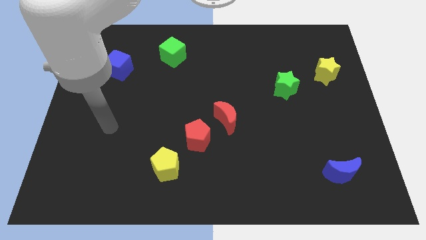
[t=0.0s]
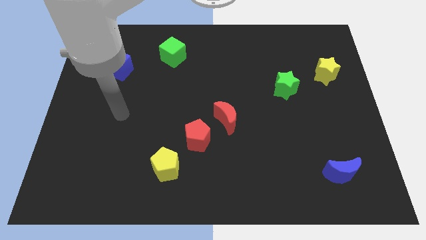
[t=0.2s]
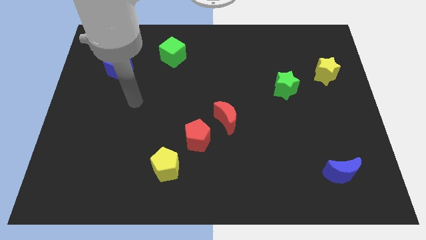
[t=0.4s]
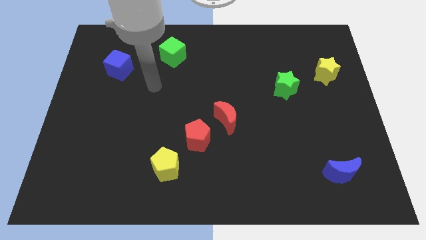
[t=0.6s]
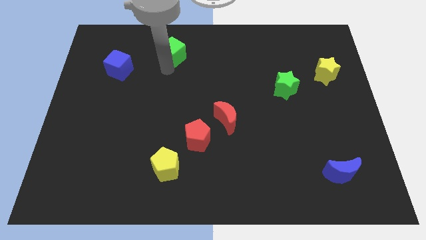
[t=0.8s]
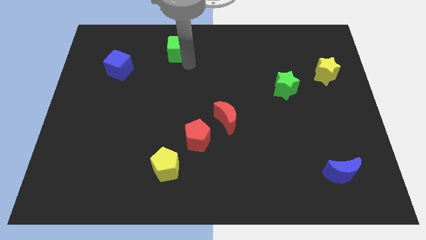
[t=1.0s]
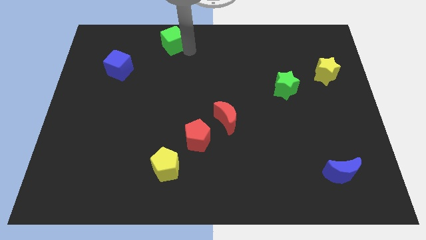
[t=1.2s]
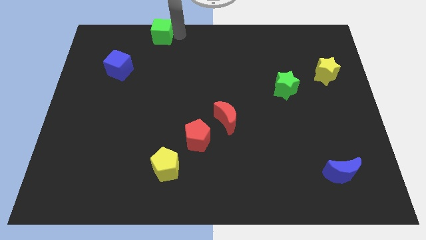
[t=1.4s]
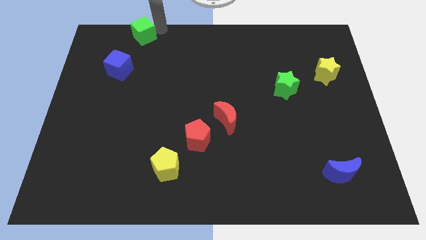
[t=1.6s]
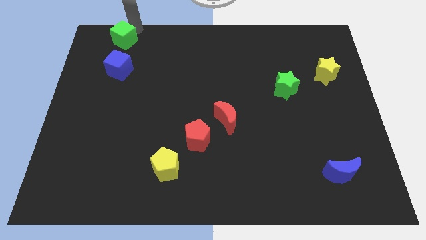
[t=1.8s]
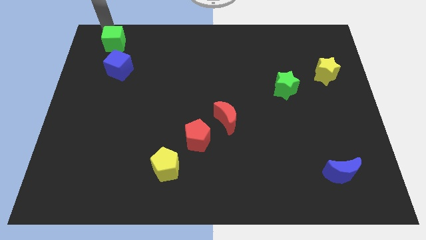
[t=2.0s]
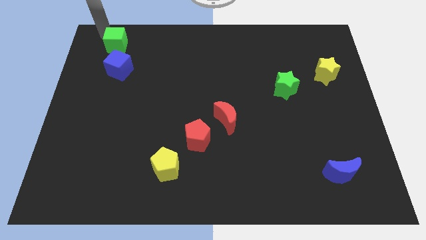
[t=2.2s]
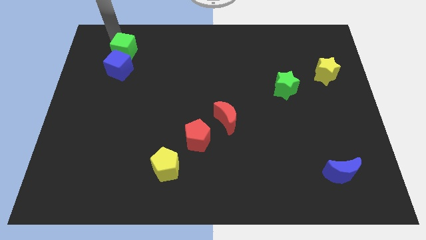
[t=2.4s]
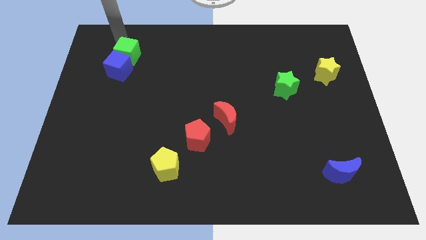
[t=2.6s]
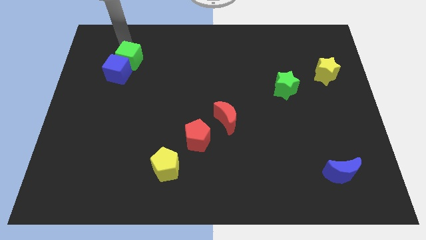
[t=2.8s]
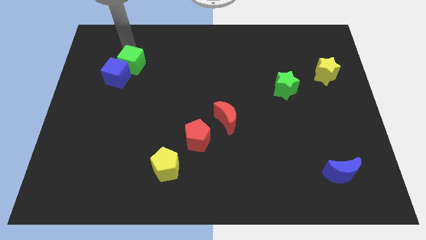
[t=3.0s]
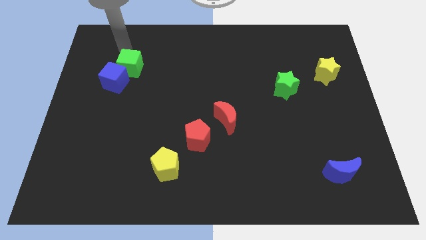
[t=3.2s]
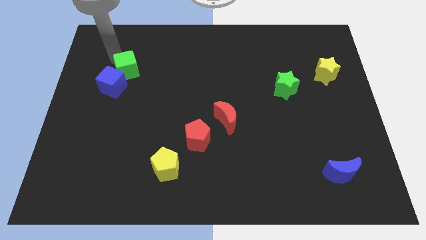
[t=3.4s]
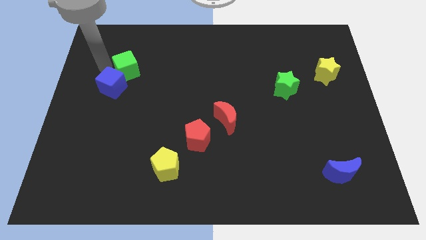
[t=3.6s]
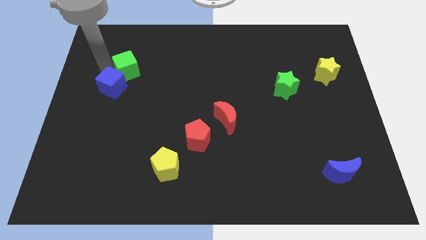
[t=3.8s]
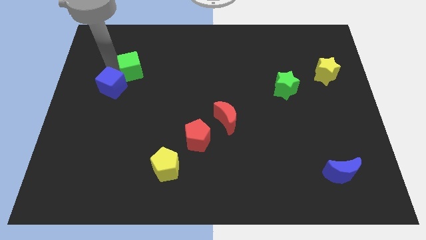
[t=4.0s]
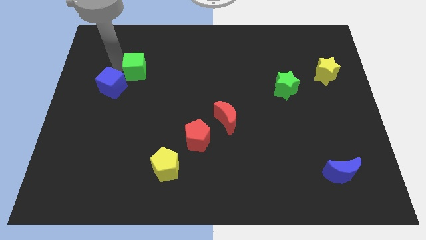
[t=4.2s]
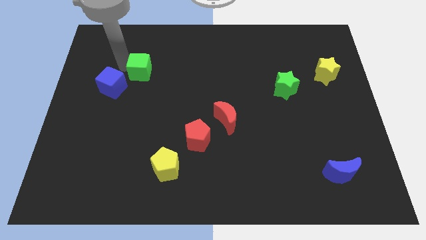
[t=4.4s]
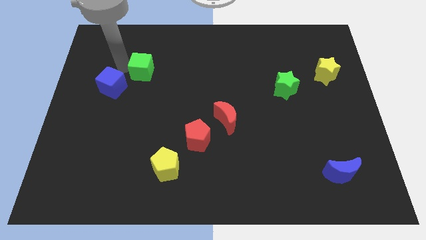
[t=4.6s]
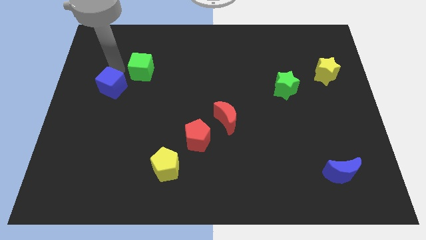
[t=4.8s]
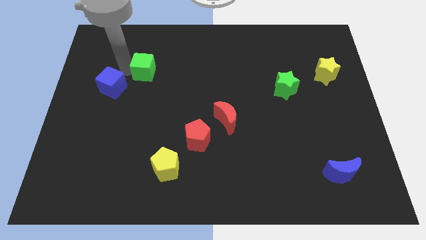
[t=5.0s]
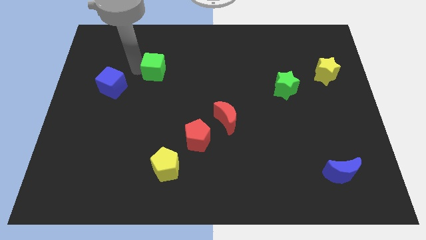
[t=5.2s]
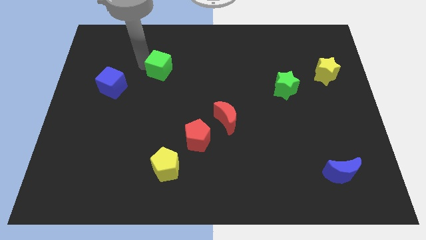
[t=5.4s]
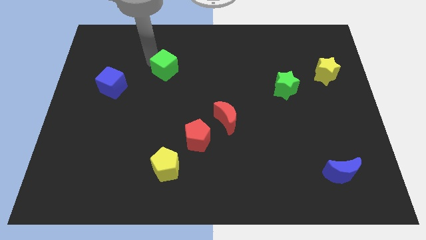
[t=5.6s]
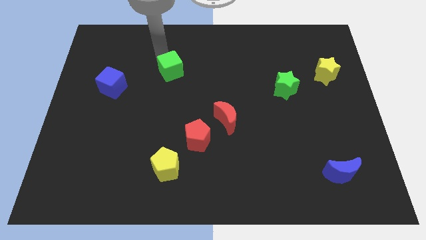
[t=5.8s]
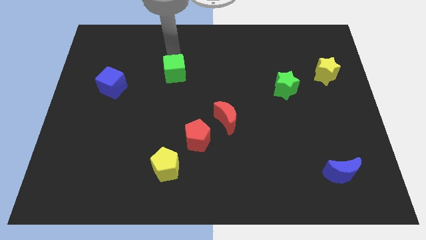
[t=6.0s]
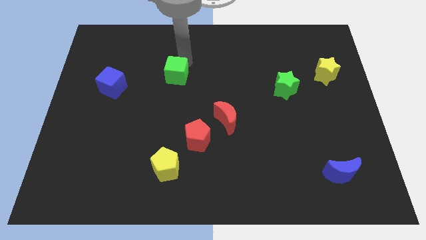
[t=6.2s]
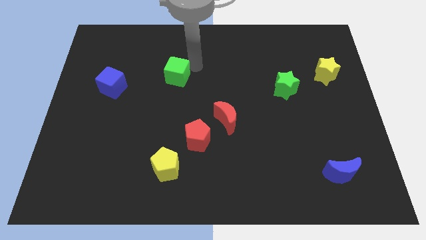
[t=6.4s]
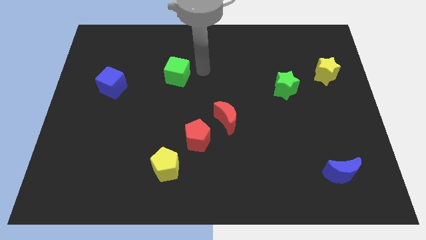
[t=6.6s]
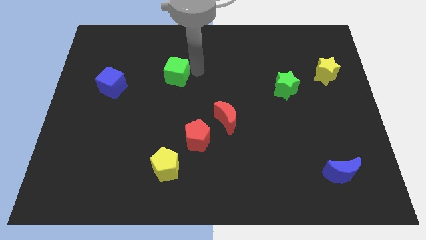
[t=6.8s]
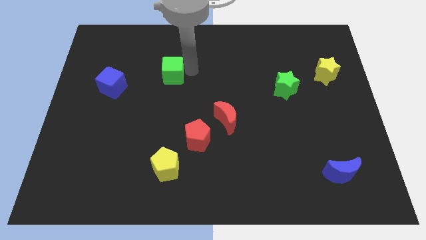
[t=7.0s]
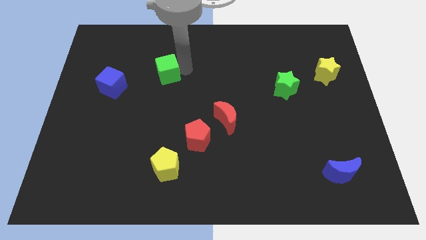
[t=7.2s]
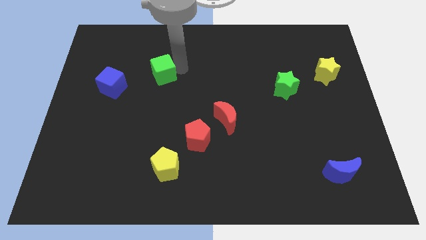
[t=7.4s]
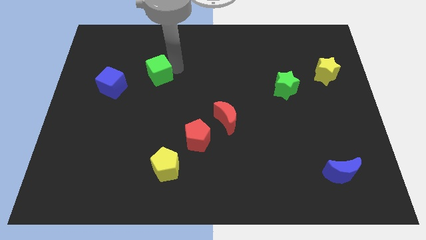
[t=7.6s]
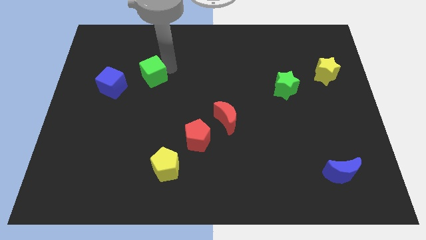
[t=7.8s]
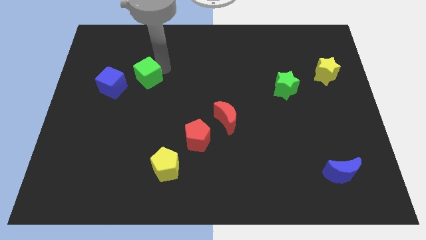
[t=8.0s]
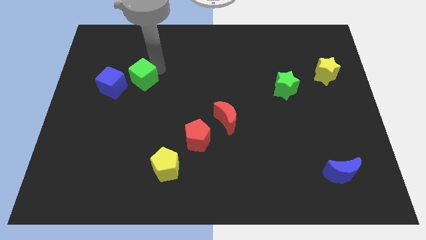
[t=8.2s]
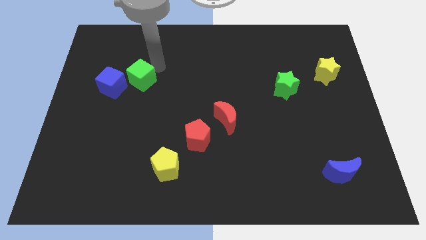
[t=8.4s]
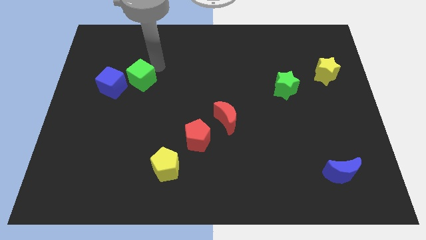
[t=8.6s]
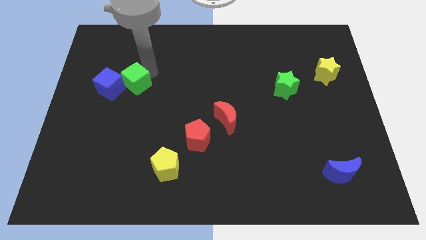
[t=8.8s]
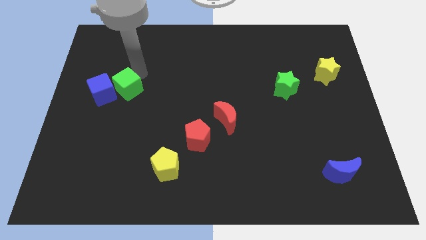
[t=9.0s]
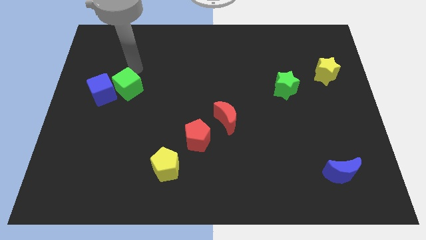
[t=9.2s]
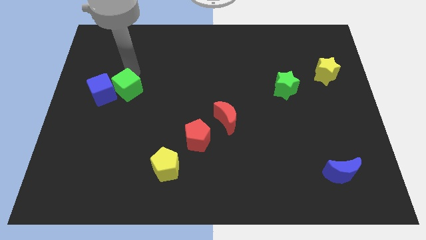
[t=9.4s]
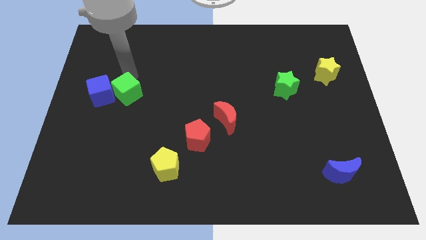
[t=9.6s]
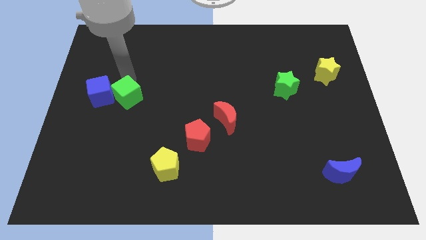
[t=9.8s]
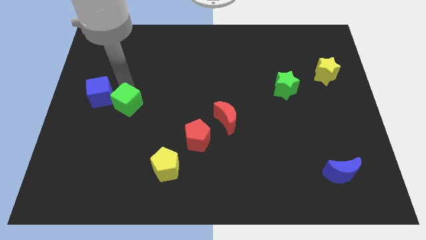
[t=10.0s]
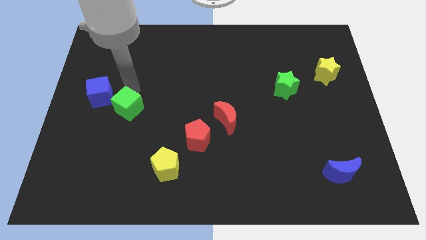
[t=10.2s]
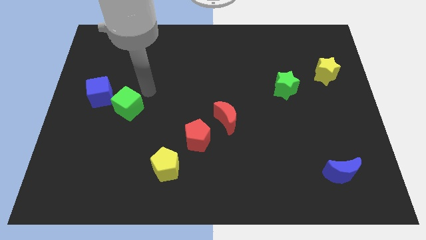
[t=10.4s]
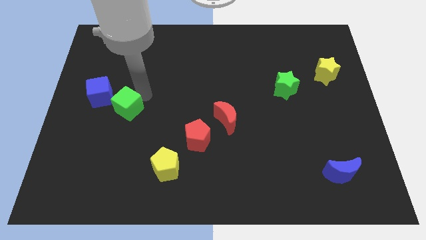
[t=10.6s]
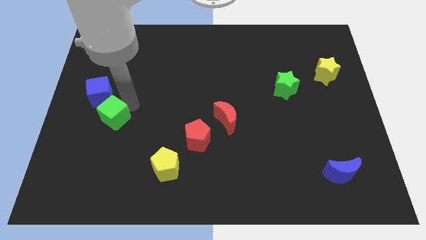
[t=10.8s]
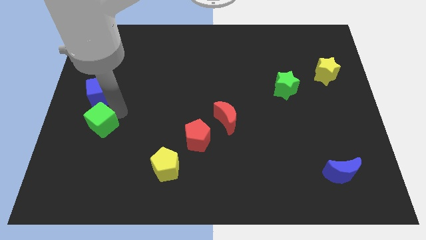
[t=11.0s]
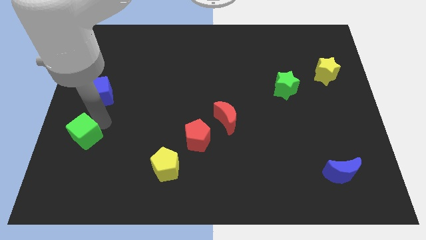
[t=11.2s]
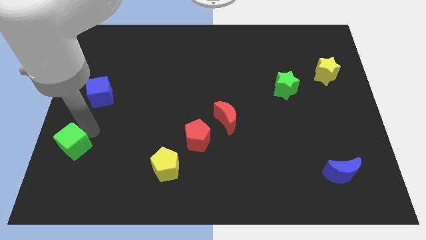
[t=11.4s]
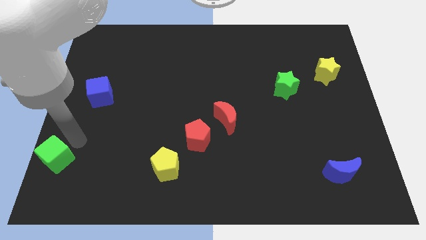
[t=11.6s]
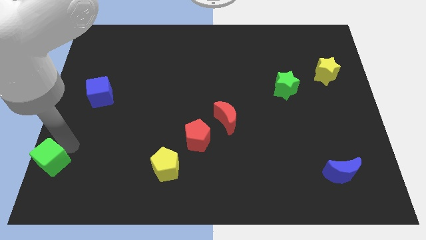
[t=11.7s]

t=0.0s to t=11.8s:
push the green cube to the bottom left of the board

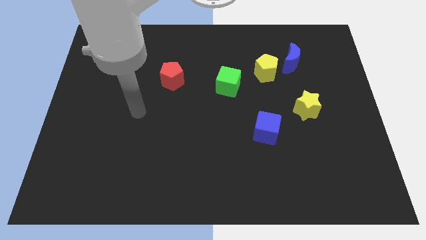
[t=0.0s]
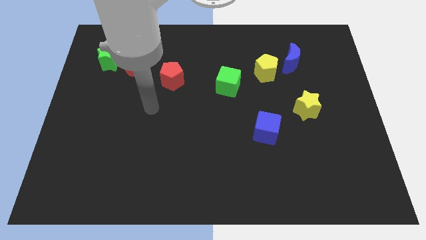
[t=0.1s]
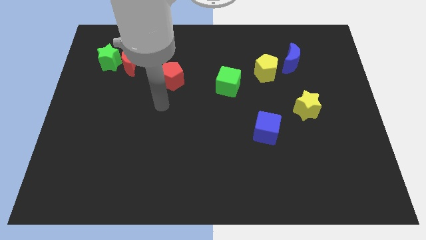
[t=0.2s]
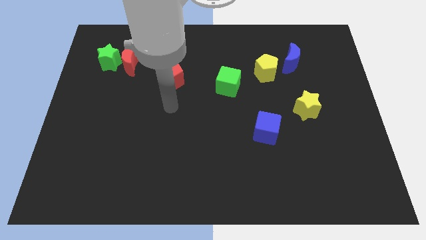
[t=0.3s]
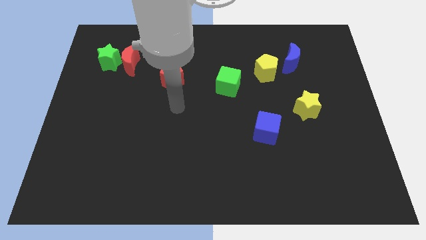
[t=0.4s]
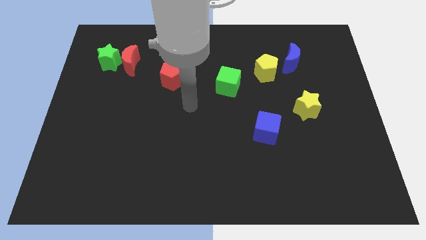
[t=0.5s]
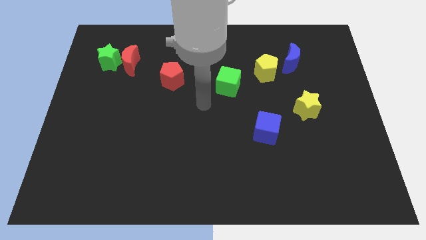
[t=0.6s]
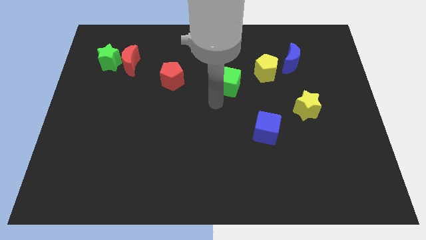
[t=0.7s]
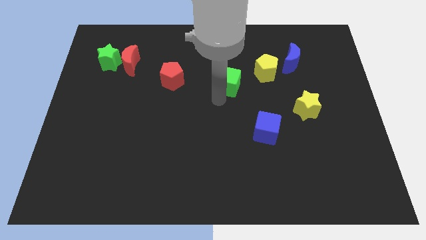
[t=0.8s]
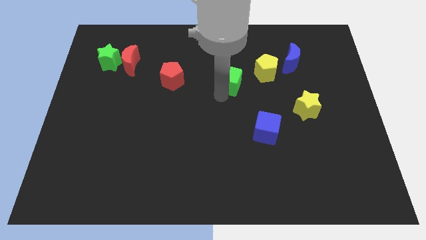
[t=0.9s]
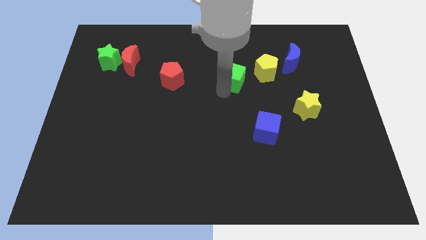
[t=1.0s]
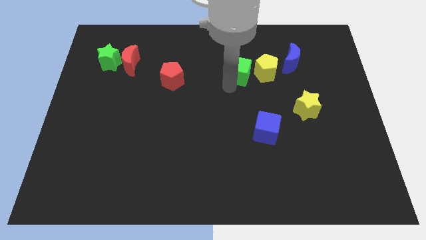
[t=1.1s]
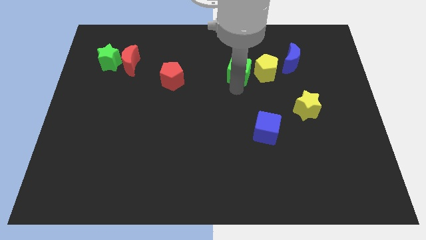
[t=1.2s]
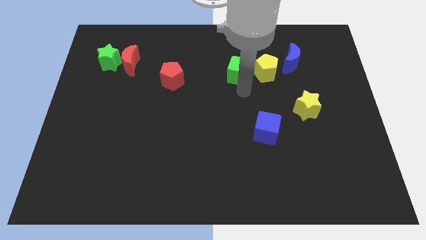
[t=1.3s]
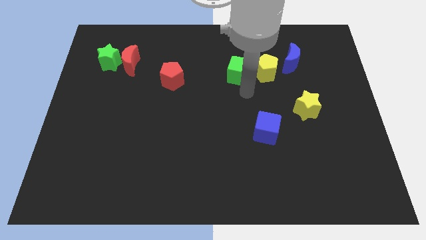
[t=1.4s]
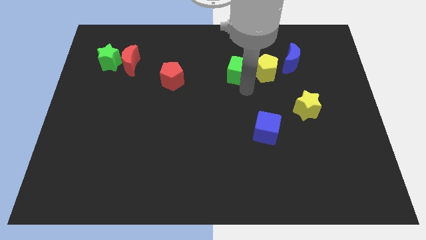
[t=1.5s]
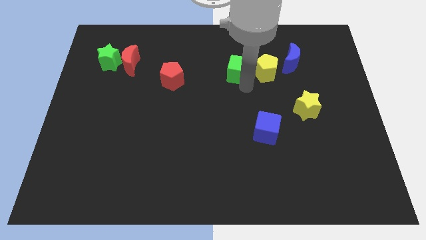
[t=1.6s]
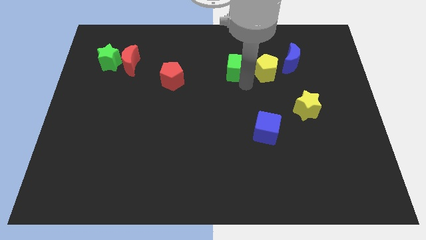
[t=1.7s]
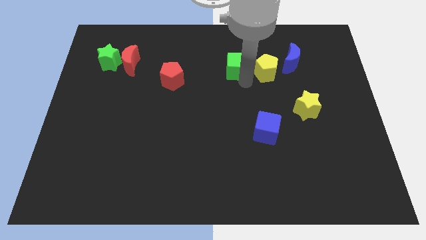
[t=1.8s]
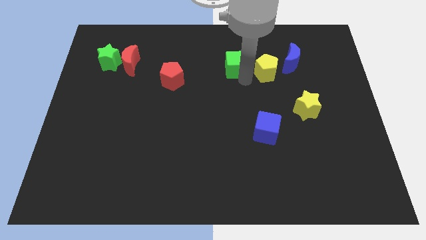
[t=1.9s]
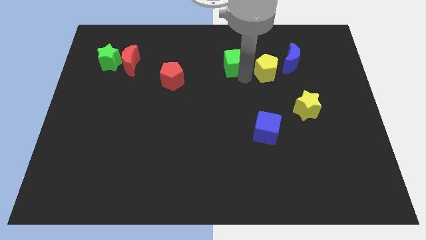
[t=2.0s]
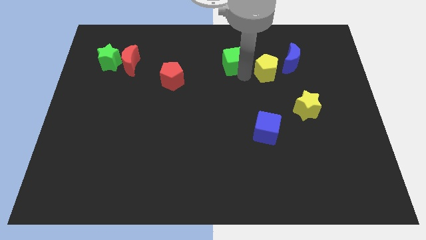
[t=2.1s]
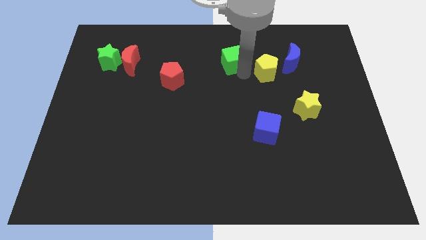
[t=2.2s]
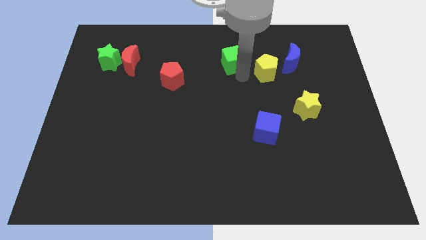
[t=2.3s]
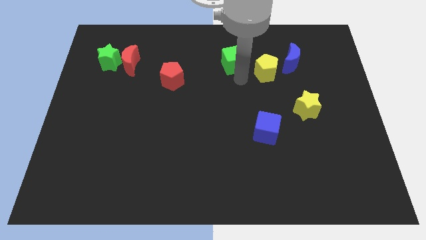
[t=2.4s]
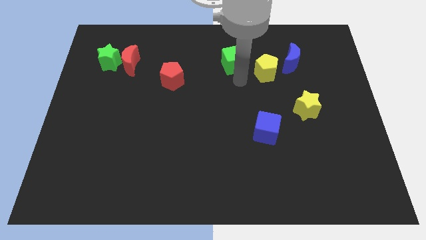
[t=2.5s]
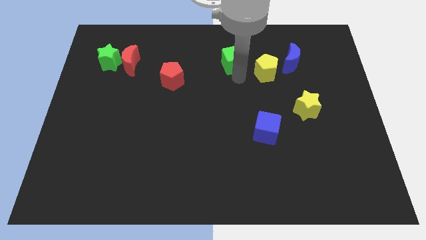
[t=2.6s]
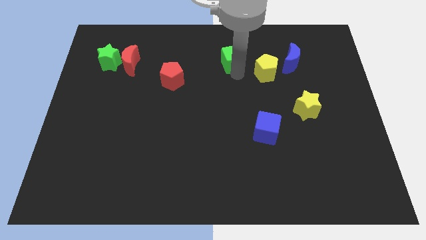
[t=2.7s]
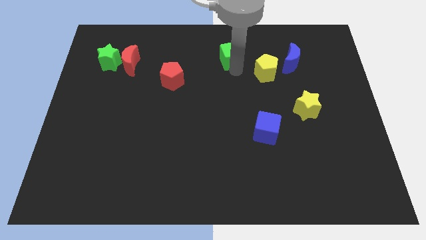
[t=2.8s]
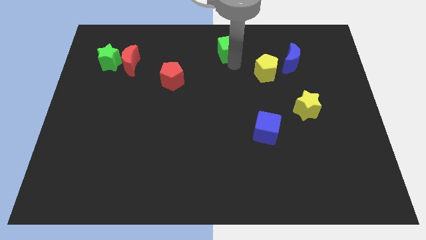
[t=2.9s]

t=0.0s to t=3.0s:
move the green cube to the top
